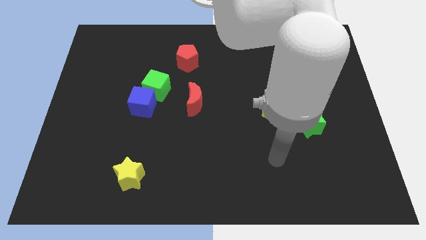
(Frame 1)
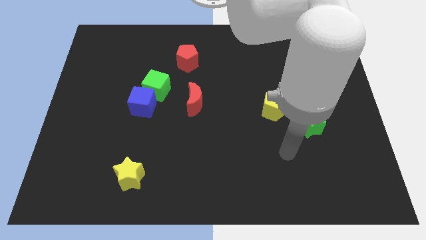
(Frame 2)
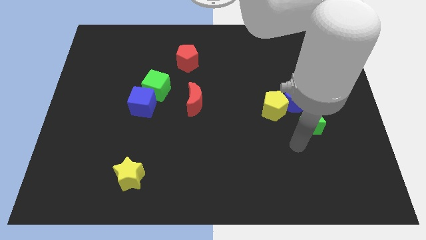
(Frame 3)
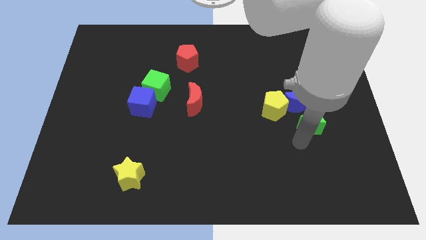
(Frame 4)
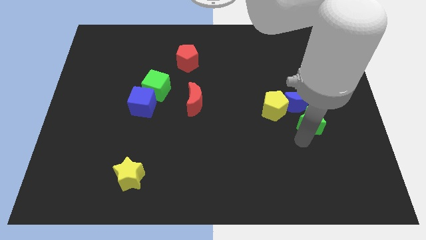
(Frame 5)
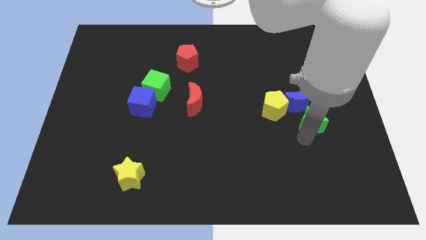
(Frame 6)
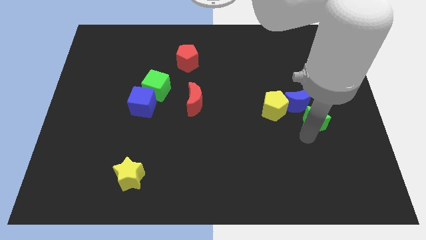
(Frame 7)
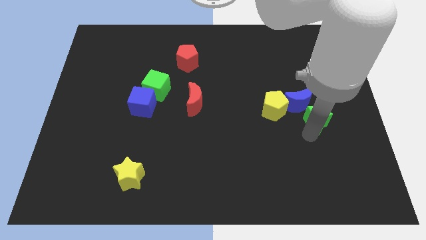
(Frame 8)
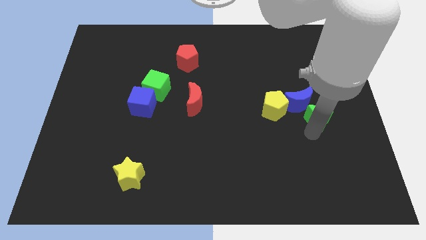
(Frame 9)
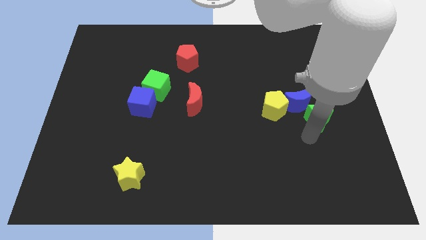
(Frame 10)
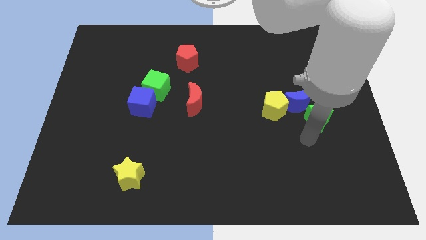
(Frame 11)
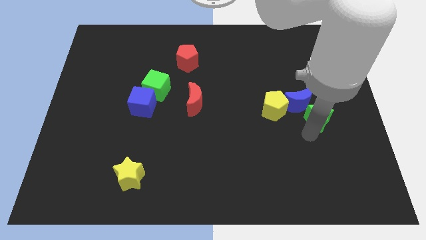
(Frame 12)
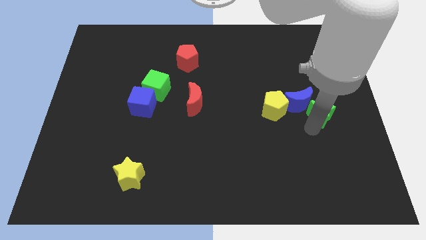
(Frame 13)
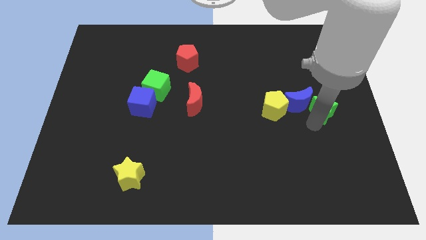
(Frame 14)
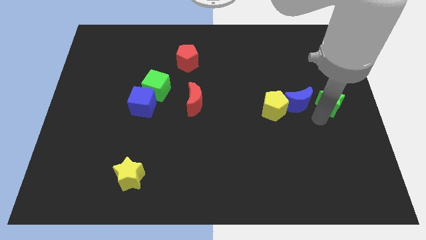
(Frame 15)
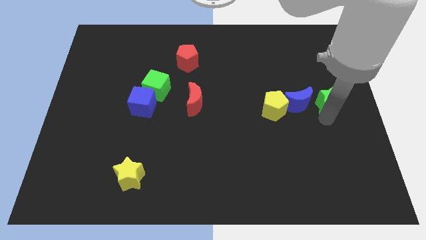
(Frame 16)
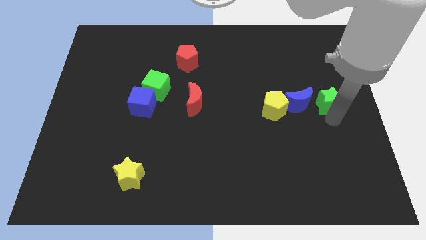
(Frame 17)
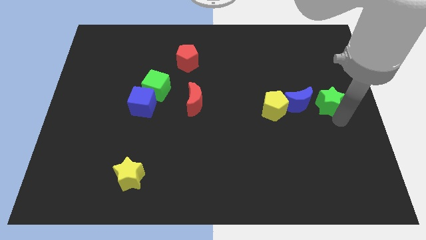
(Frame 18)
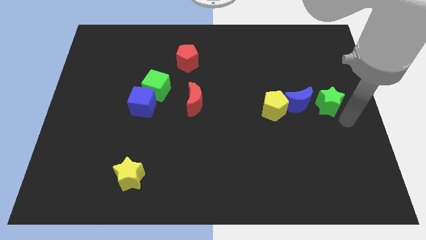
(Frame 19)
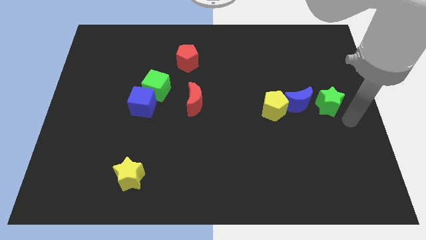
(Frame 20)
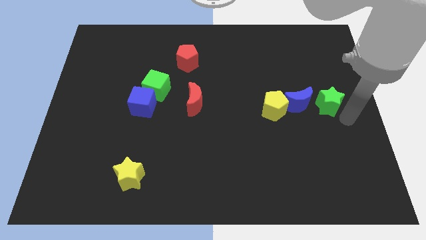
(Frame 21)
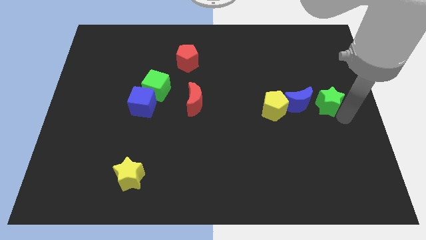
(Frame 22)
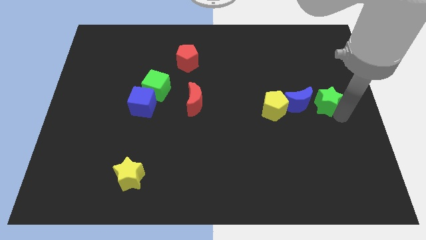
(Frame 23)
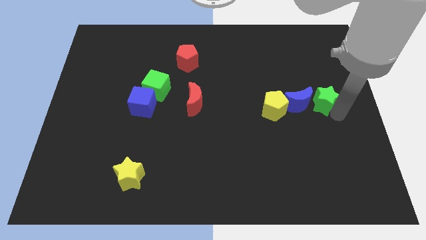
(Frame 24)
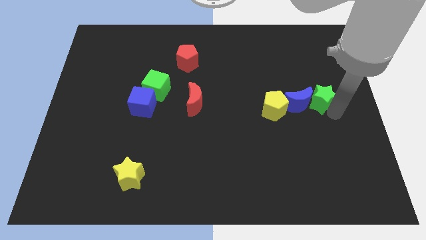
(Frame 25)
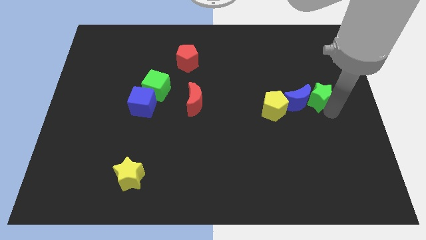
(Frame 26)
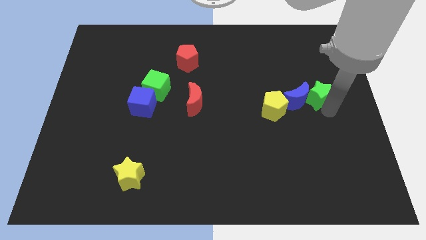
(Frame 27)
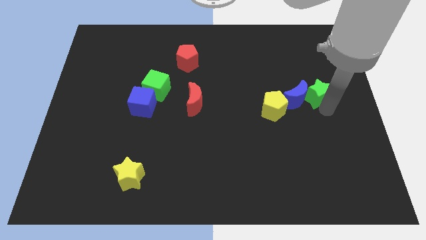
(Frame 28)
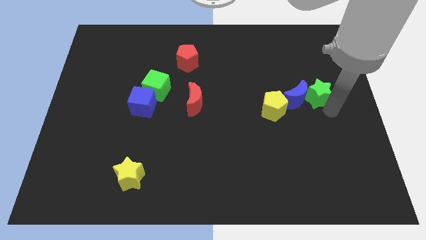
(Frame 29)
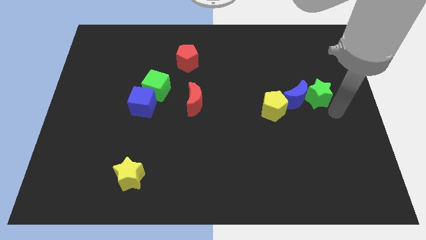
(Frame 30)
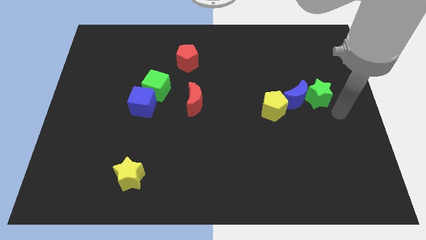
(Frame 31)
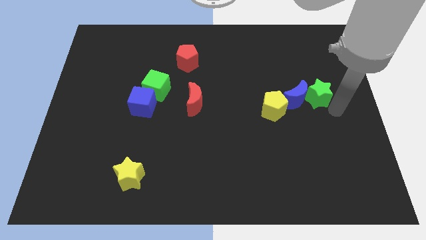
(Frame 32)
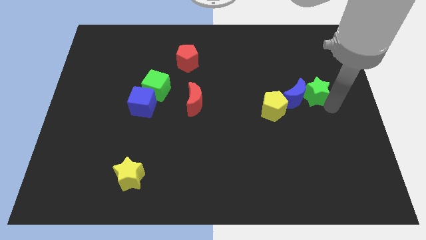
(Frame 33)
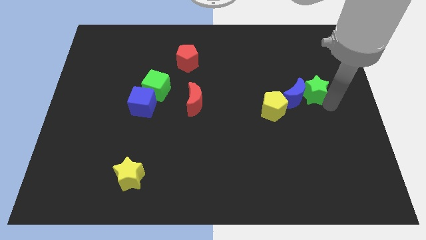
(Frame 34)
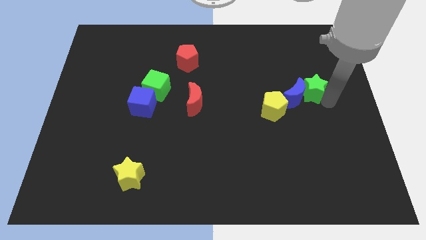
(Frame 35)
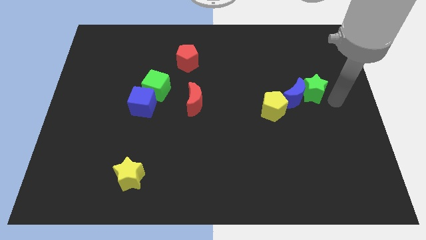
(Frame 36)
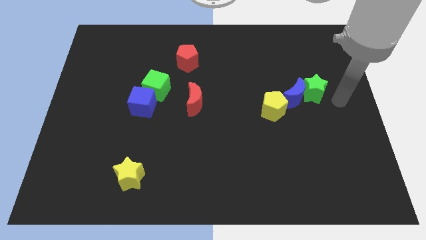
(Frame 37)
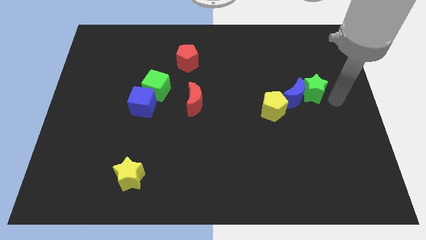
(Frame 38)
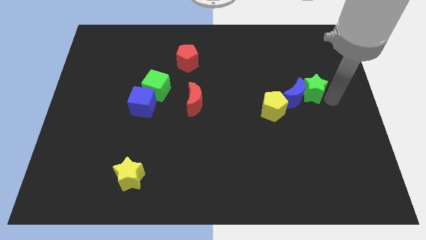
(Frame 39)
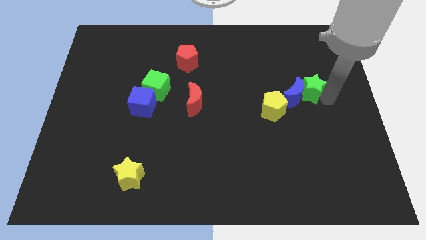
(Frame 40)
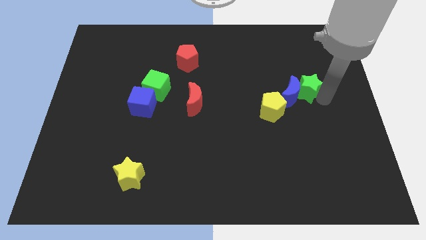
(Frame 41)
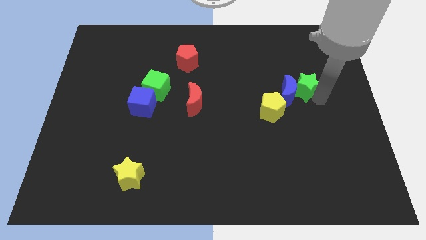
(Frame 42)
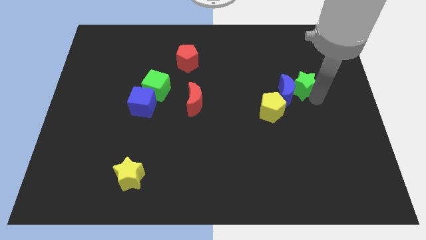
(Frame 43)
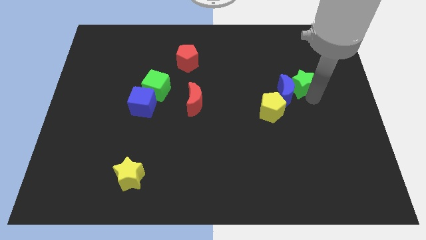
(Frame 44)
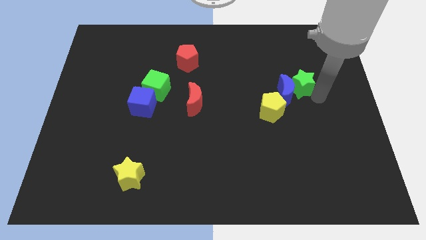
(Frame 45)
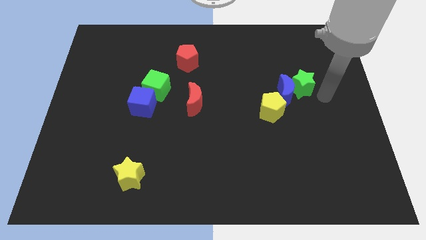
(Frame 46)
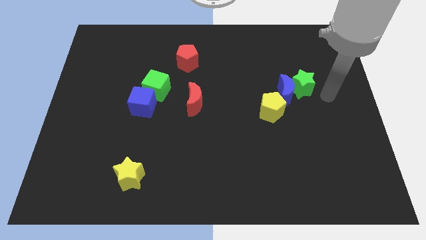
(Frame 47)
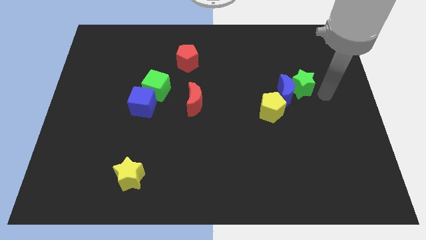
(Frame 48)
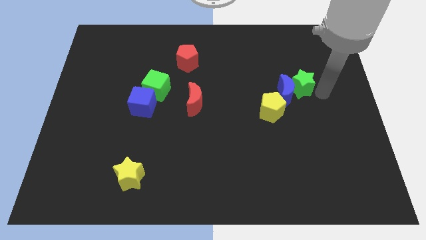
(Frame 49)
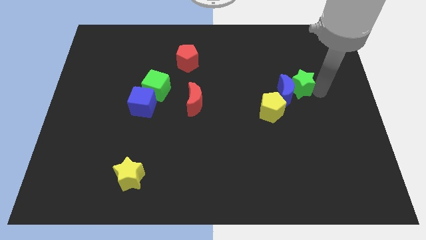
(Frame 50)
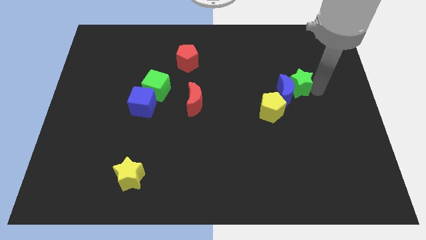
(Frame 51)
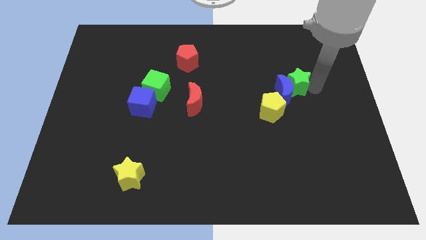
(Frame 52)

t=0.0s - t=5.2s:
slightly slide the green star up and then left

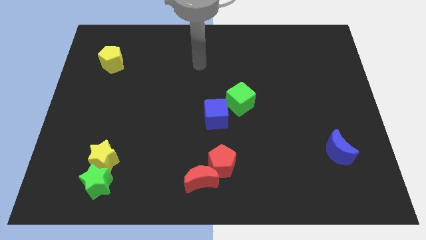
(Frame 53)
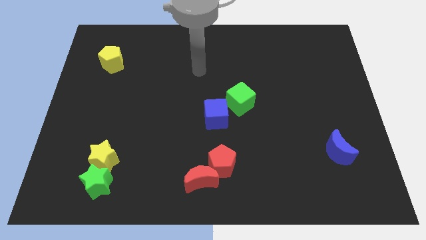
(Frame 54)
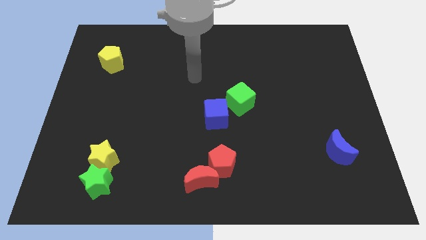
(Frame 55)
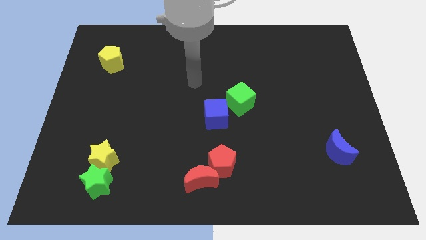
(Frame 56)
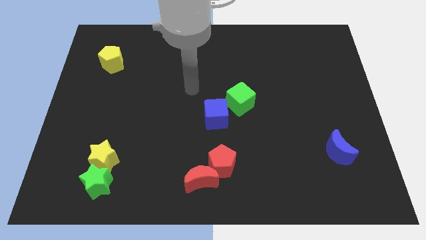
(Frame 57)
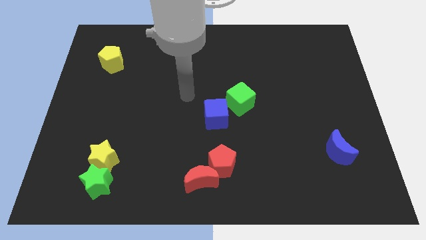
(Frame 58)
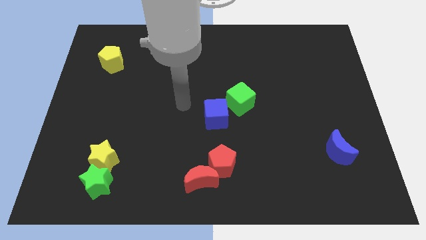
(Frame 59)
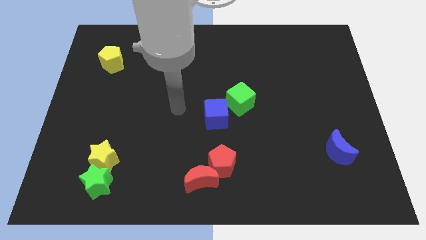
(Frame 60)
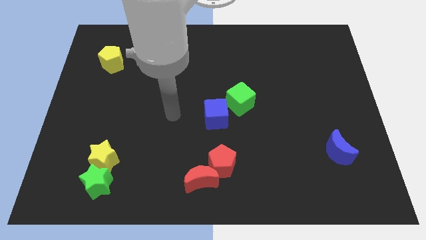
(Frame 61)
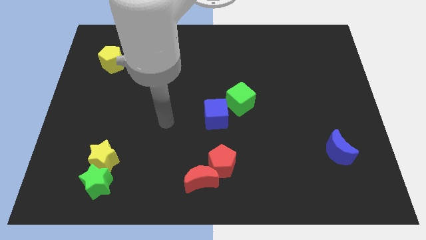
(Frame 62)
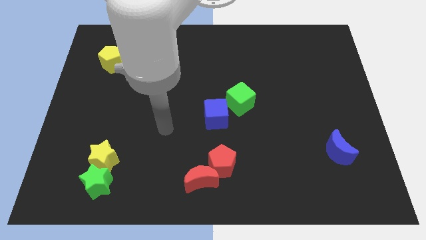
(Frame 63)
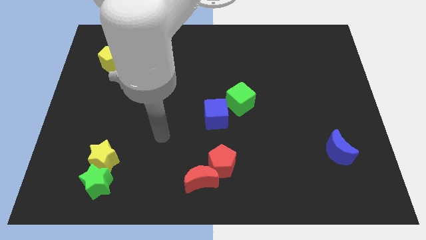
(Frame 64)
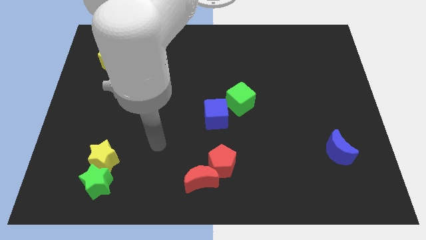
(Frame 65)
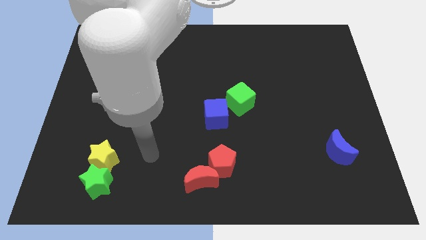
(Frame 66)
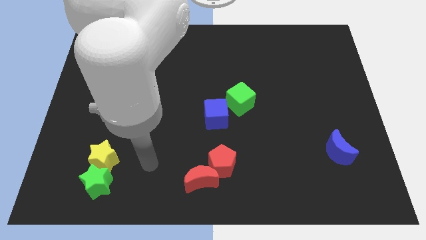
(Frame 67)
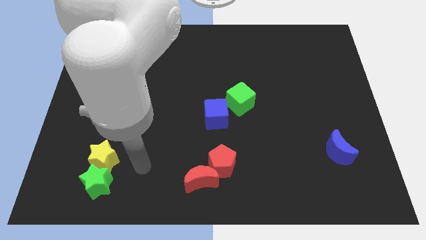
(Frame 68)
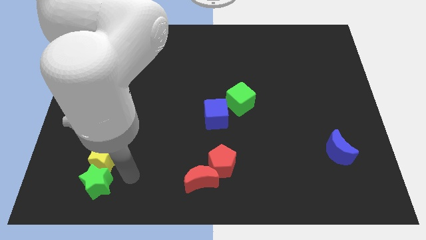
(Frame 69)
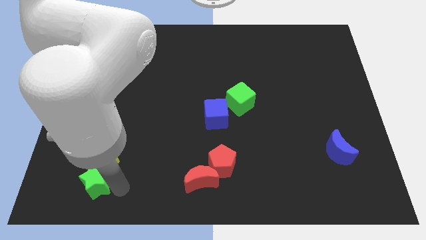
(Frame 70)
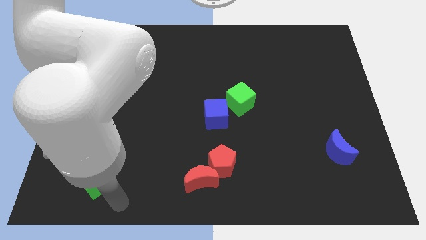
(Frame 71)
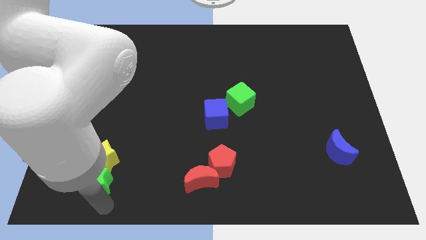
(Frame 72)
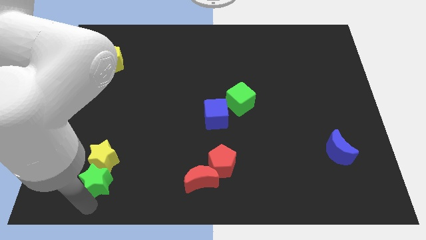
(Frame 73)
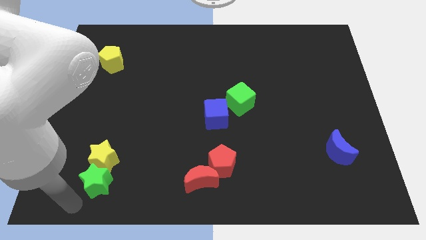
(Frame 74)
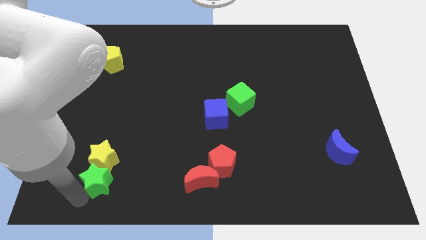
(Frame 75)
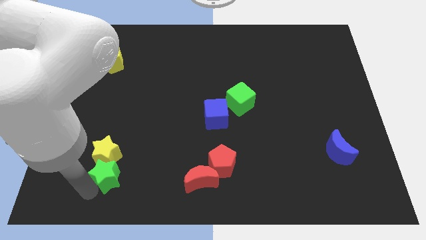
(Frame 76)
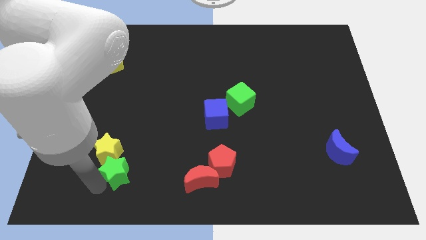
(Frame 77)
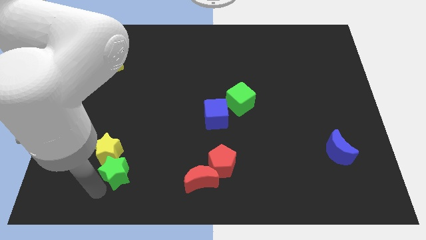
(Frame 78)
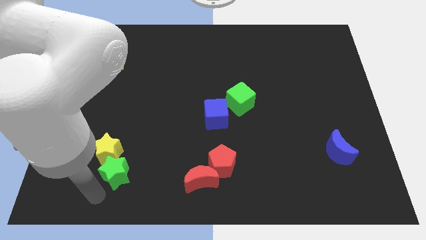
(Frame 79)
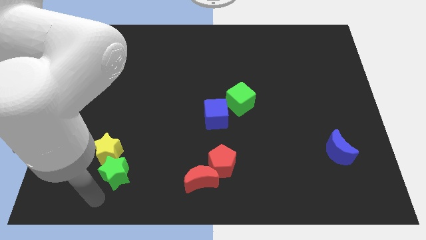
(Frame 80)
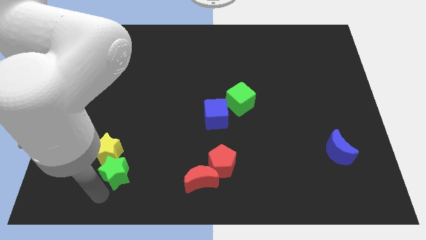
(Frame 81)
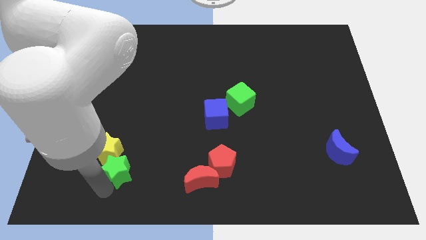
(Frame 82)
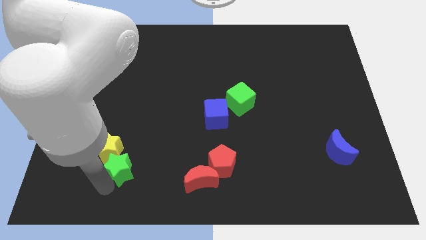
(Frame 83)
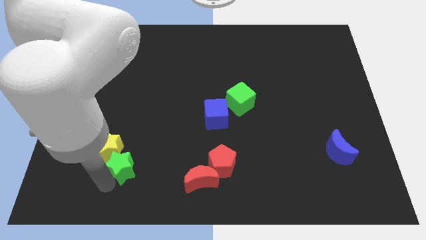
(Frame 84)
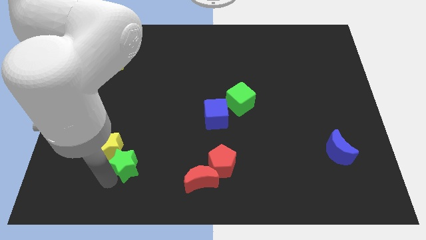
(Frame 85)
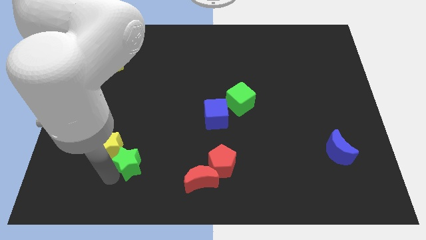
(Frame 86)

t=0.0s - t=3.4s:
push the green star up and right diagonally a little
